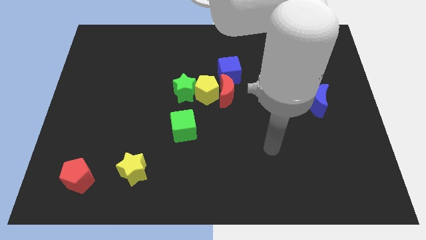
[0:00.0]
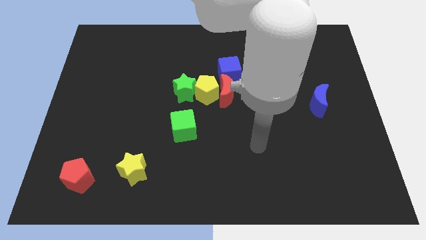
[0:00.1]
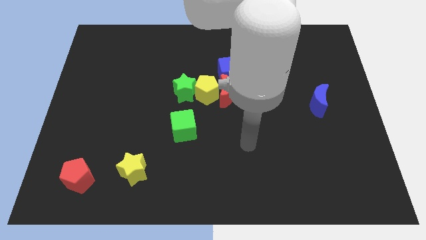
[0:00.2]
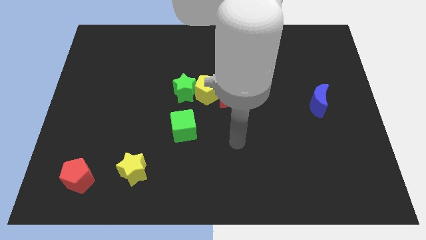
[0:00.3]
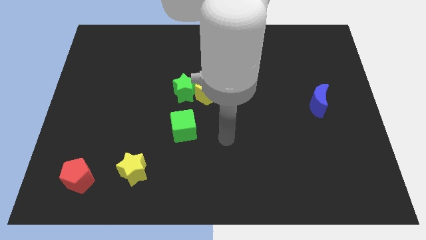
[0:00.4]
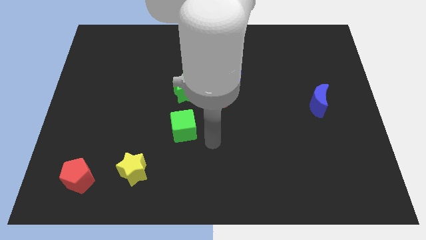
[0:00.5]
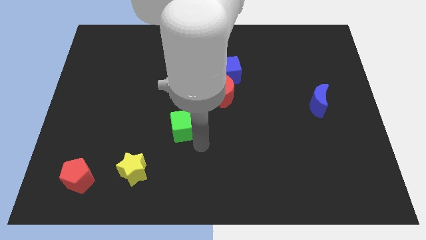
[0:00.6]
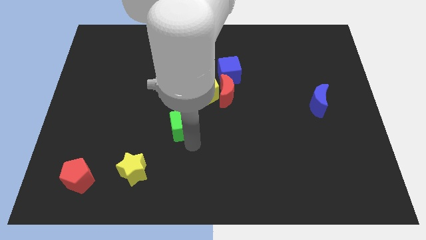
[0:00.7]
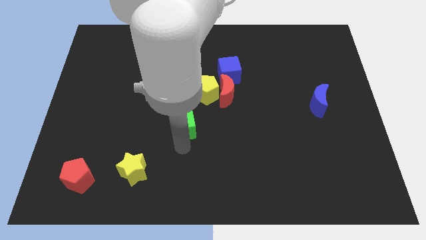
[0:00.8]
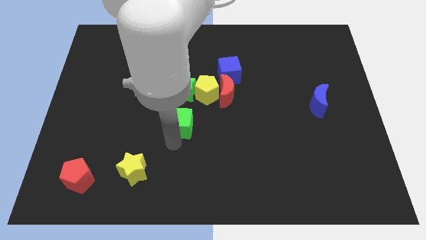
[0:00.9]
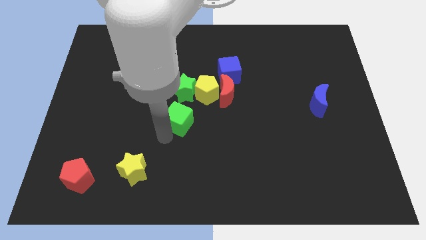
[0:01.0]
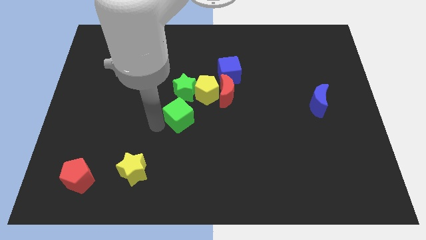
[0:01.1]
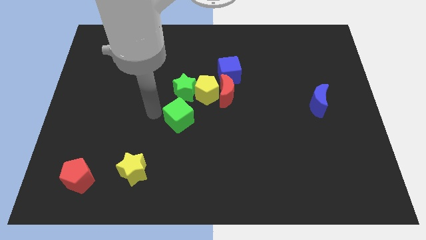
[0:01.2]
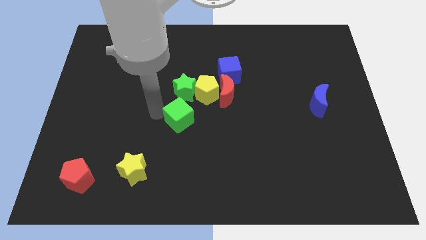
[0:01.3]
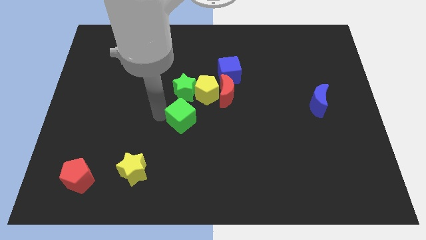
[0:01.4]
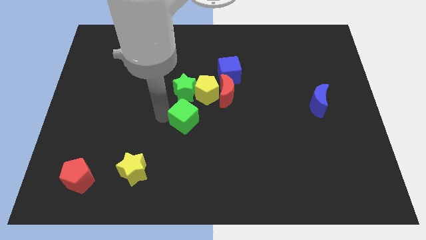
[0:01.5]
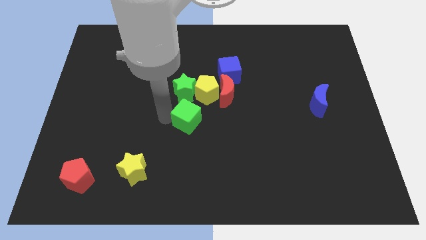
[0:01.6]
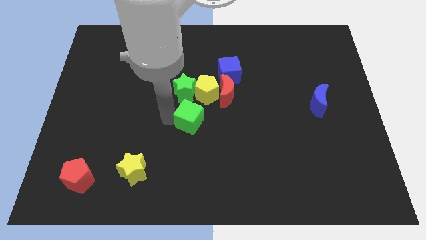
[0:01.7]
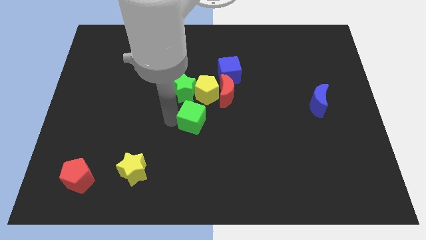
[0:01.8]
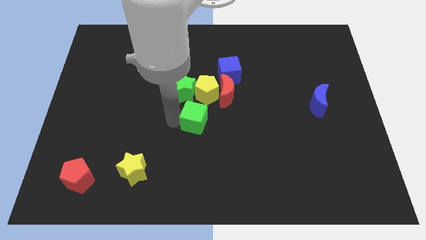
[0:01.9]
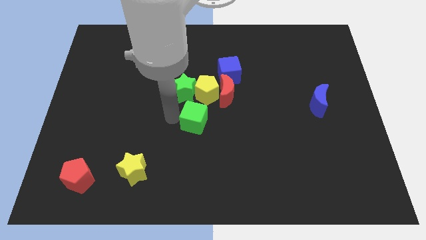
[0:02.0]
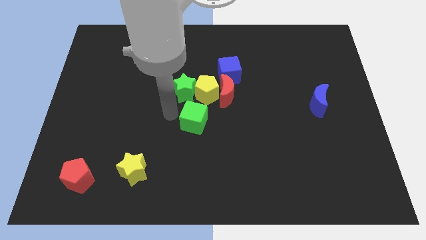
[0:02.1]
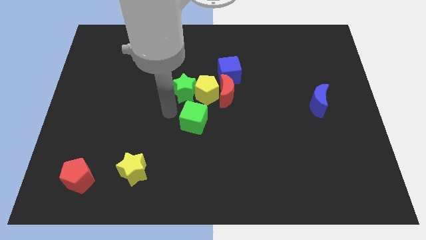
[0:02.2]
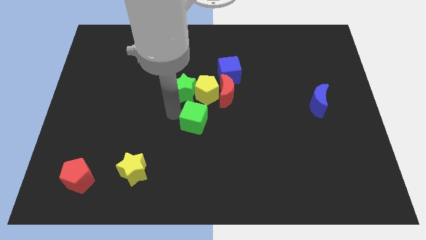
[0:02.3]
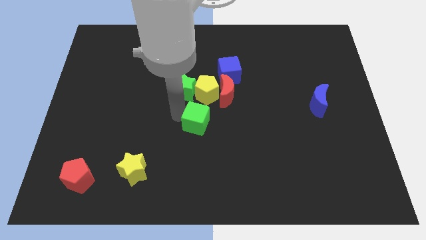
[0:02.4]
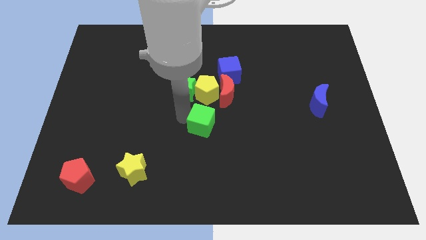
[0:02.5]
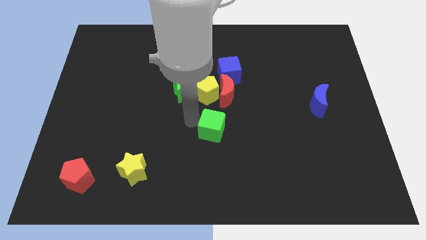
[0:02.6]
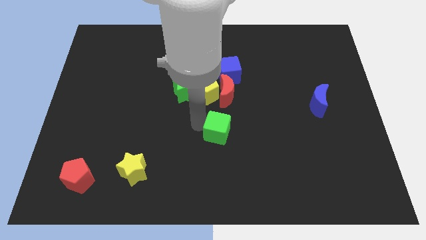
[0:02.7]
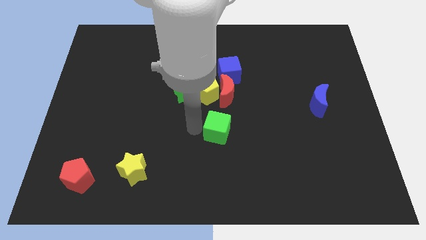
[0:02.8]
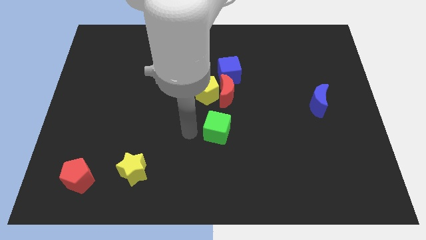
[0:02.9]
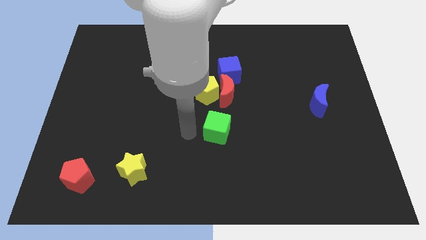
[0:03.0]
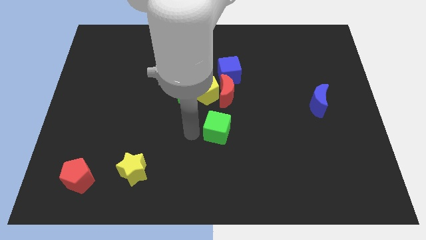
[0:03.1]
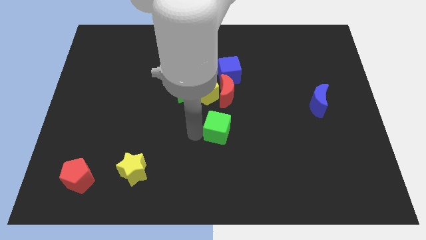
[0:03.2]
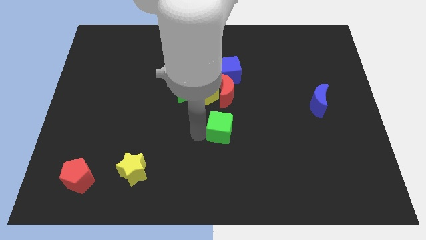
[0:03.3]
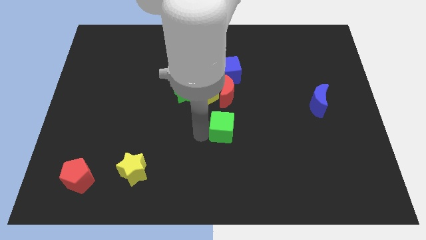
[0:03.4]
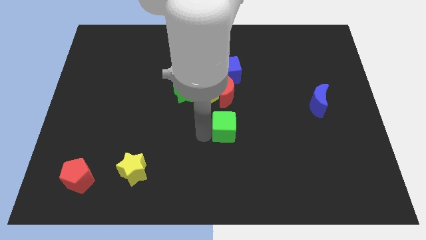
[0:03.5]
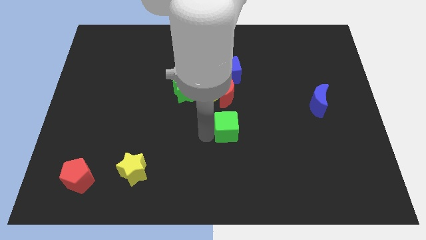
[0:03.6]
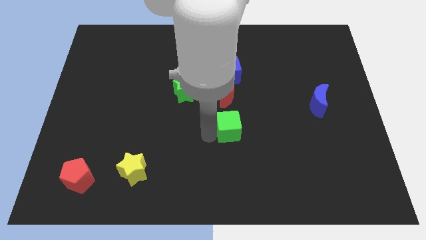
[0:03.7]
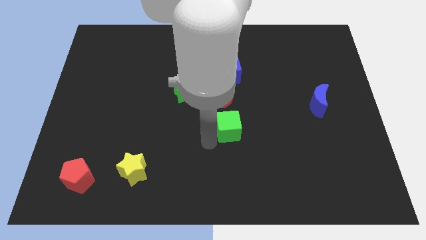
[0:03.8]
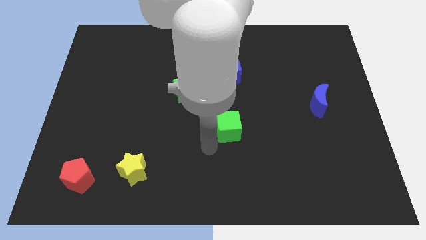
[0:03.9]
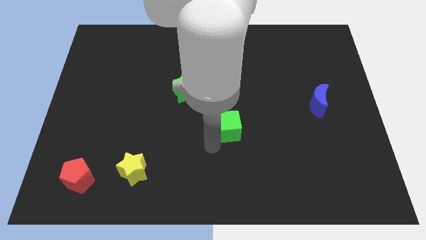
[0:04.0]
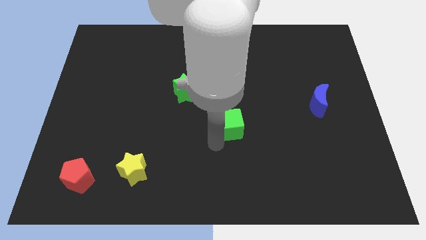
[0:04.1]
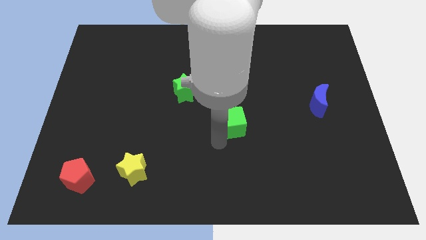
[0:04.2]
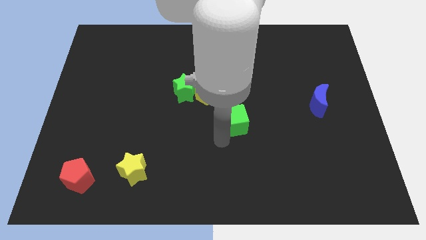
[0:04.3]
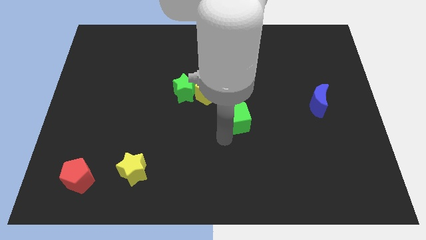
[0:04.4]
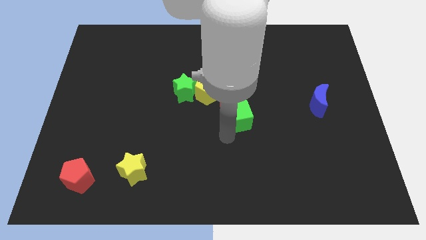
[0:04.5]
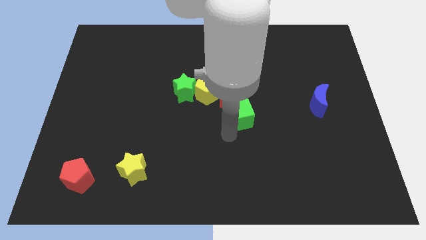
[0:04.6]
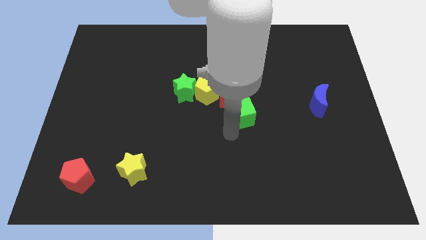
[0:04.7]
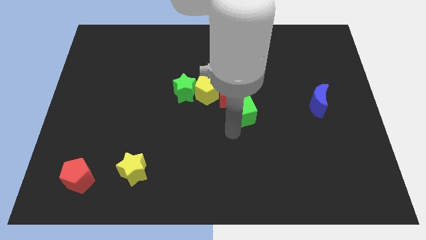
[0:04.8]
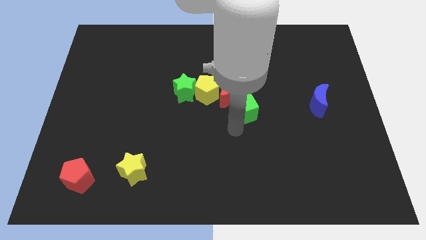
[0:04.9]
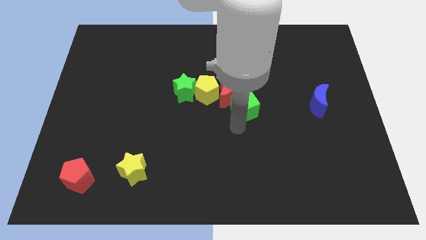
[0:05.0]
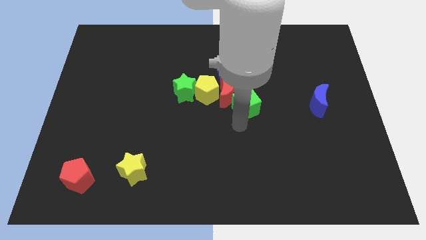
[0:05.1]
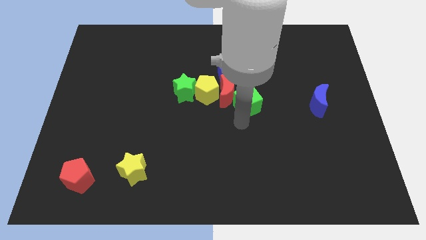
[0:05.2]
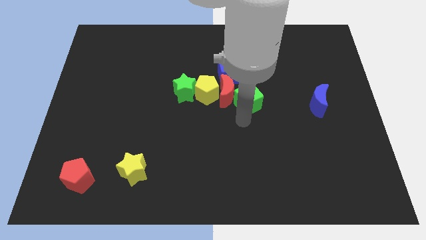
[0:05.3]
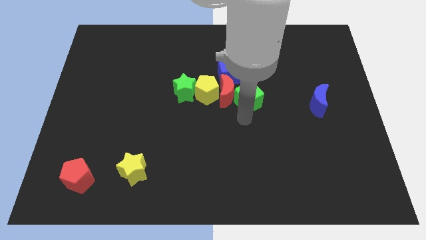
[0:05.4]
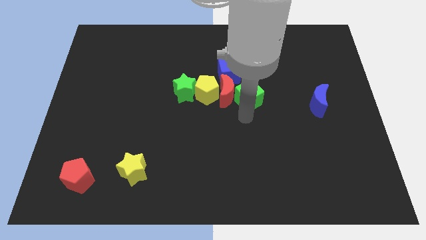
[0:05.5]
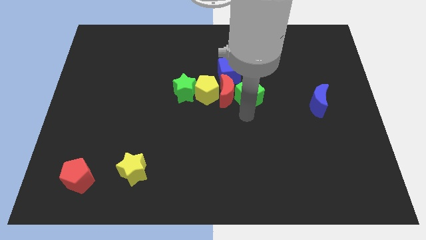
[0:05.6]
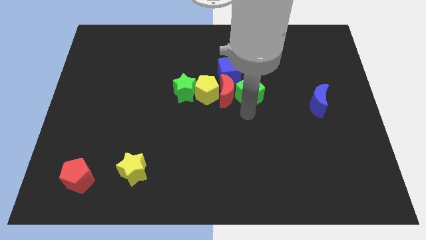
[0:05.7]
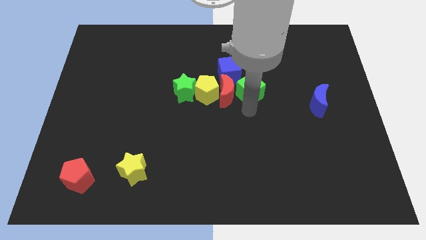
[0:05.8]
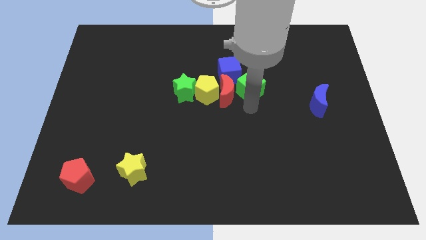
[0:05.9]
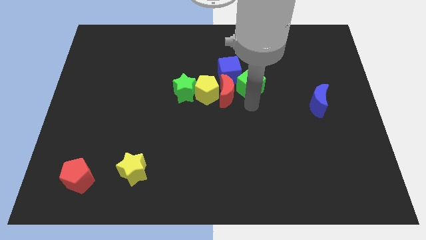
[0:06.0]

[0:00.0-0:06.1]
move the green cube right of the blue cube

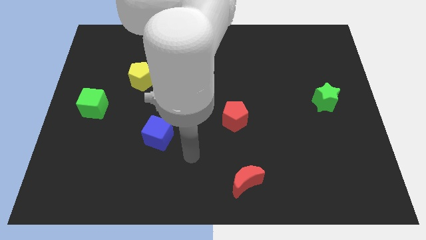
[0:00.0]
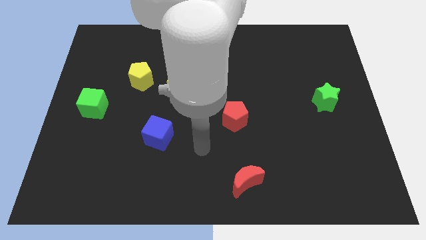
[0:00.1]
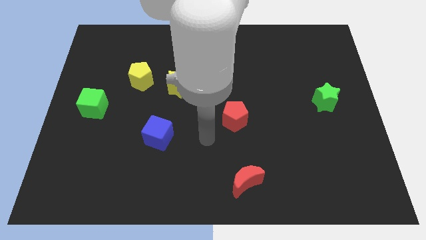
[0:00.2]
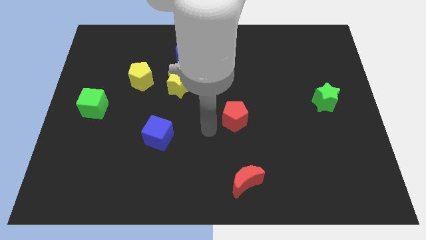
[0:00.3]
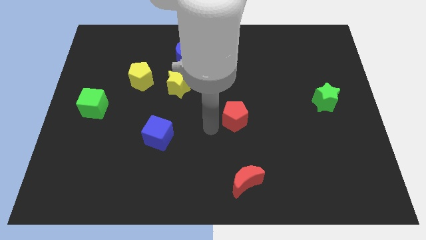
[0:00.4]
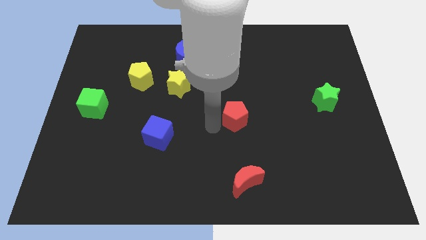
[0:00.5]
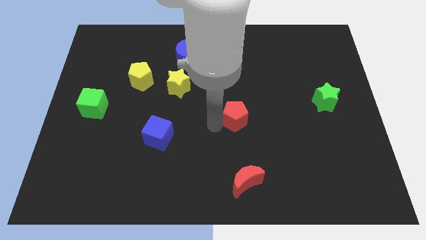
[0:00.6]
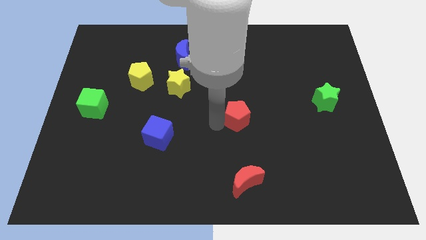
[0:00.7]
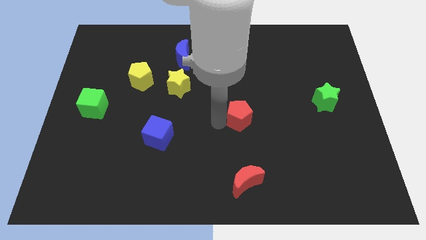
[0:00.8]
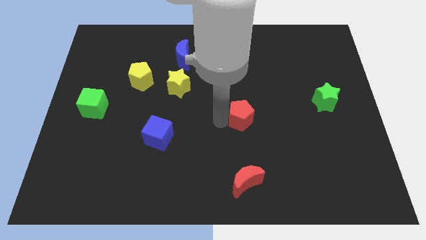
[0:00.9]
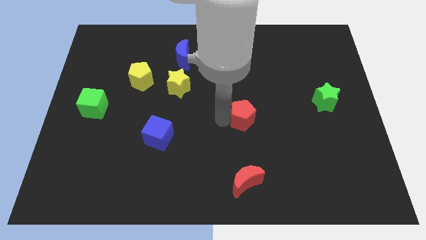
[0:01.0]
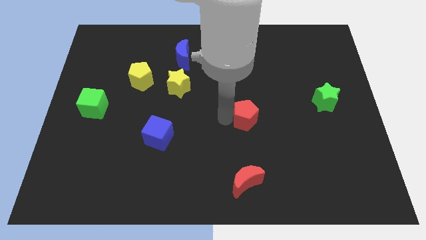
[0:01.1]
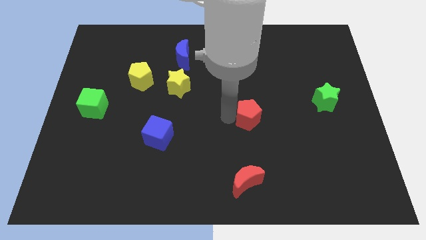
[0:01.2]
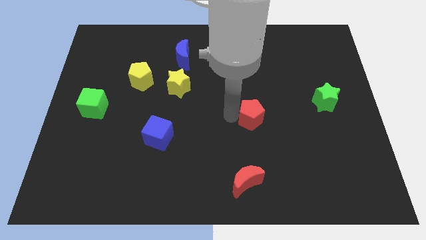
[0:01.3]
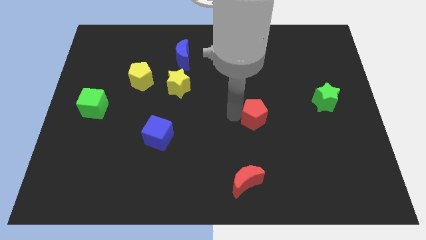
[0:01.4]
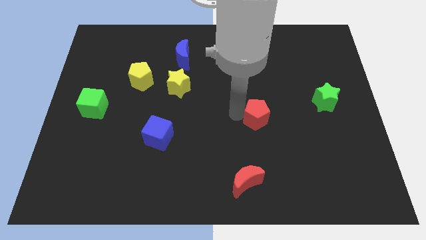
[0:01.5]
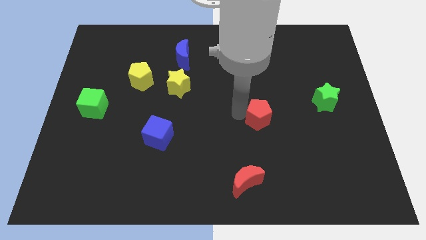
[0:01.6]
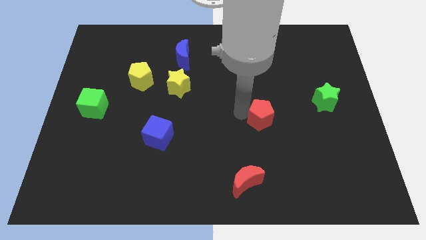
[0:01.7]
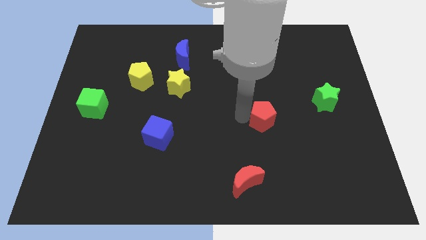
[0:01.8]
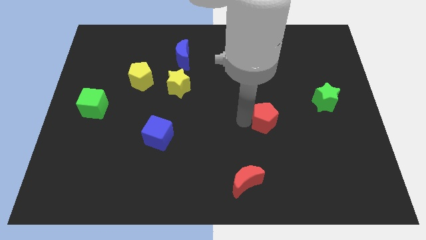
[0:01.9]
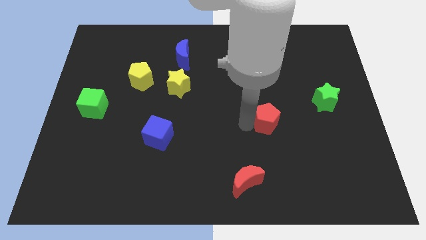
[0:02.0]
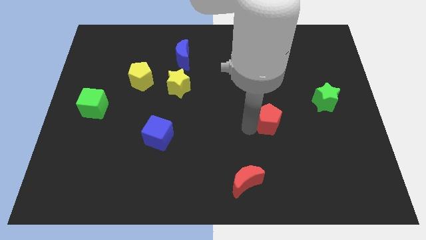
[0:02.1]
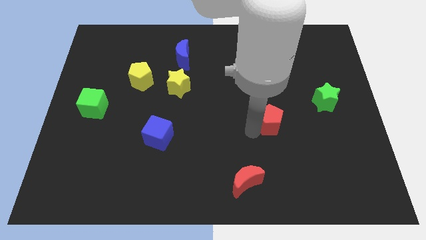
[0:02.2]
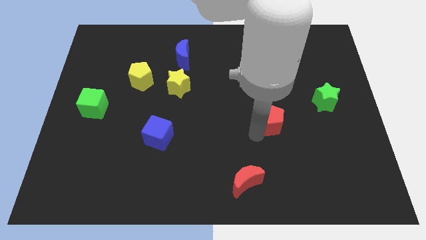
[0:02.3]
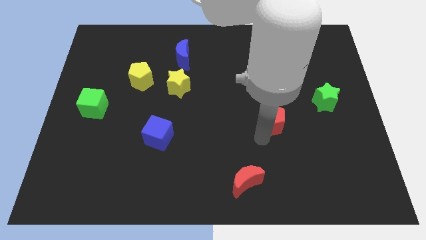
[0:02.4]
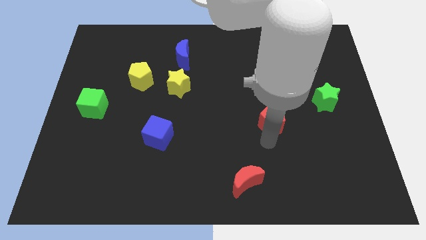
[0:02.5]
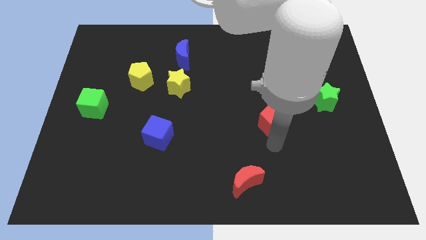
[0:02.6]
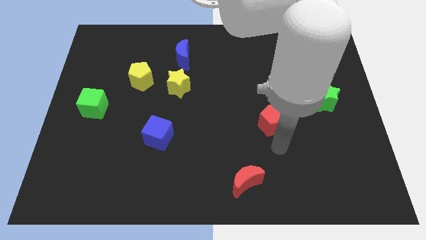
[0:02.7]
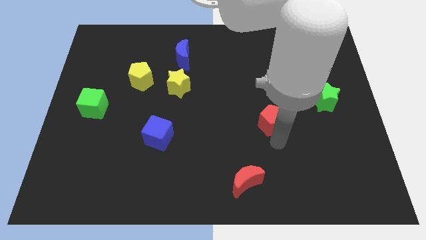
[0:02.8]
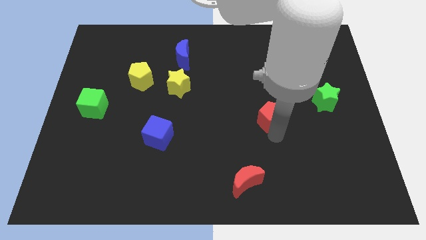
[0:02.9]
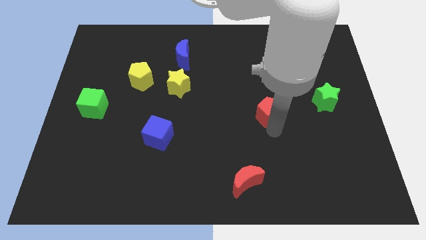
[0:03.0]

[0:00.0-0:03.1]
slide the red pentagon left of the green star
